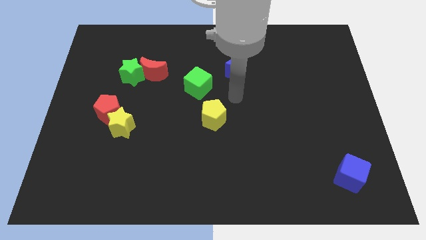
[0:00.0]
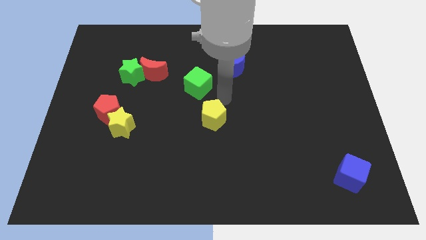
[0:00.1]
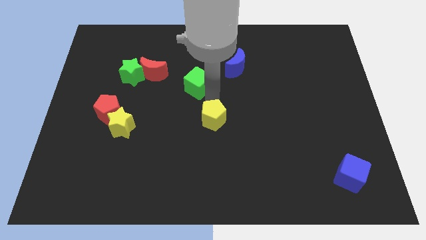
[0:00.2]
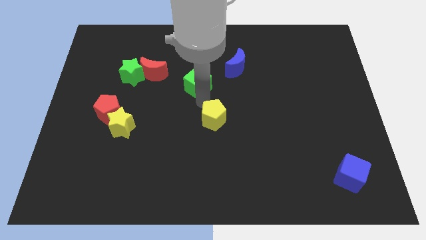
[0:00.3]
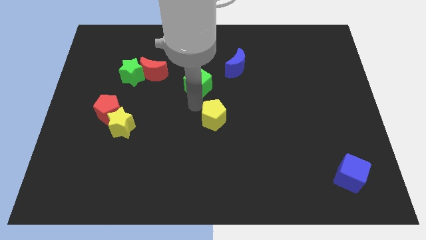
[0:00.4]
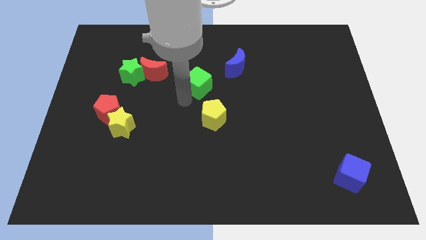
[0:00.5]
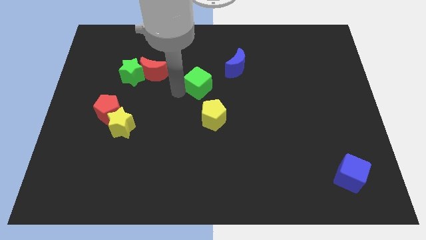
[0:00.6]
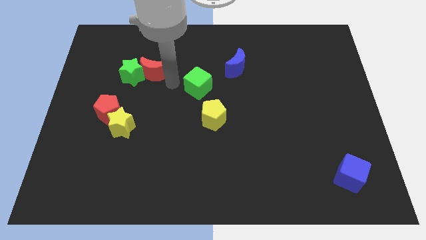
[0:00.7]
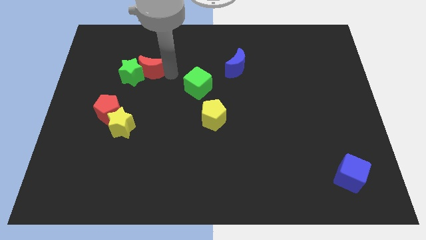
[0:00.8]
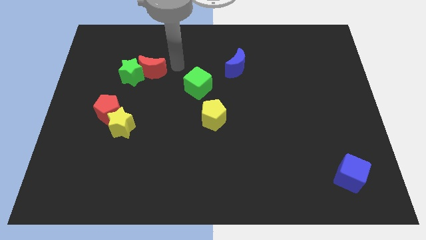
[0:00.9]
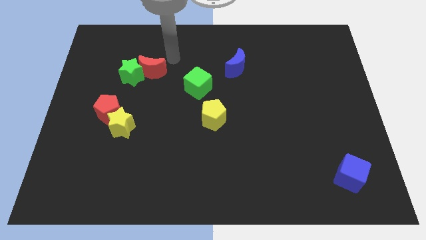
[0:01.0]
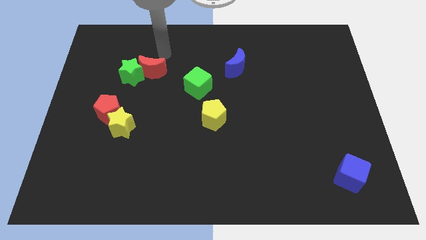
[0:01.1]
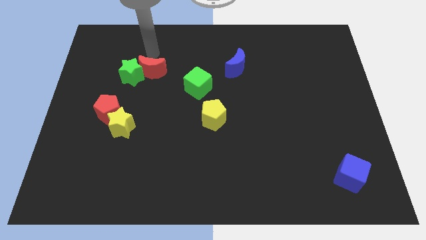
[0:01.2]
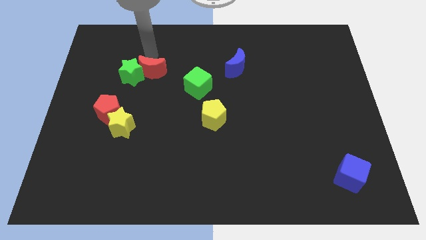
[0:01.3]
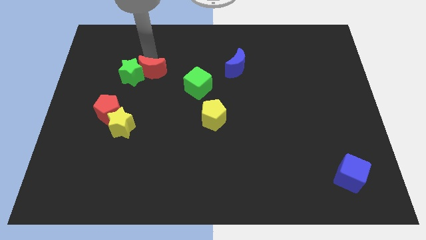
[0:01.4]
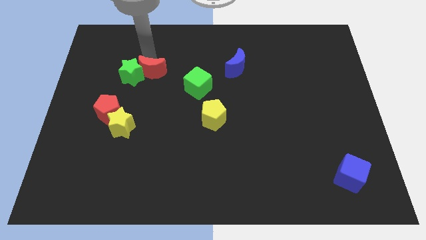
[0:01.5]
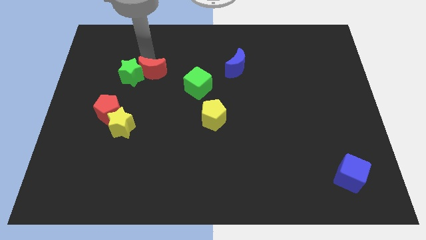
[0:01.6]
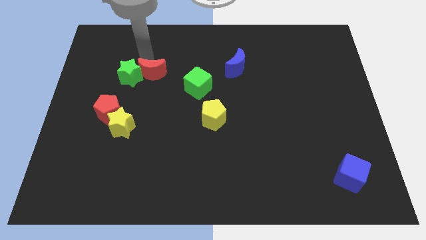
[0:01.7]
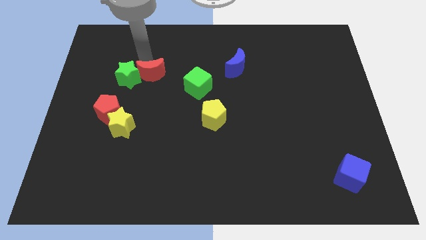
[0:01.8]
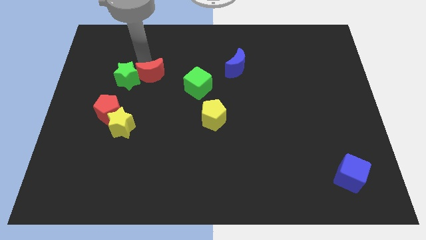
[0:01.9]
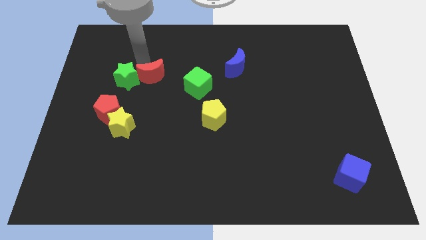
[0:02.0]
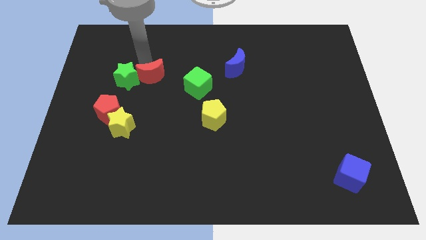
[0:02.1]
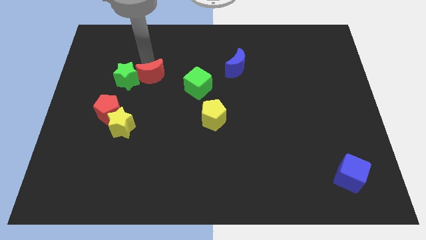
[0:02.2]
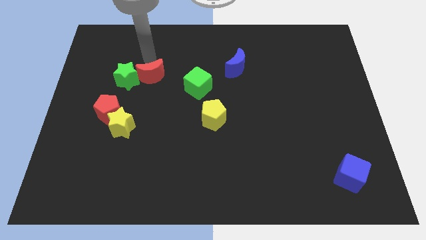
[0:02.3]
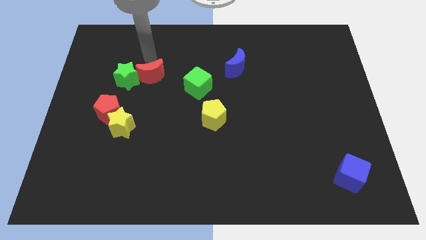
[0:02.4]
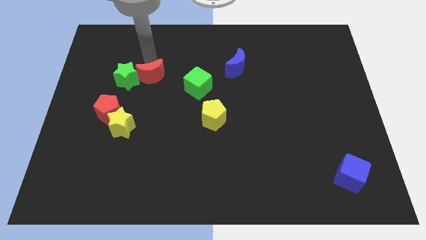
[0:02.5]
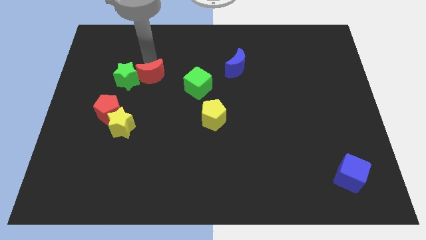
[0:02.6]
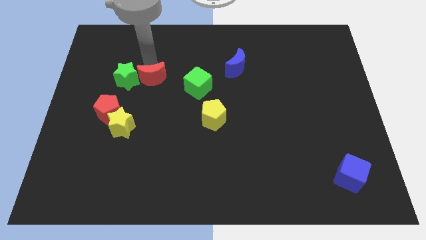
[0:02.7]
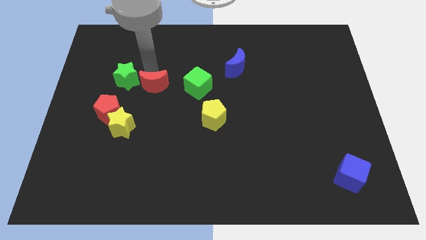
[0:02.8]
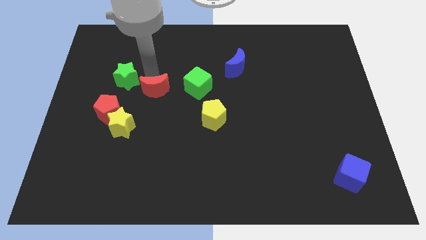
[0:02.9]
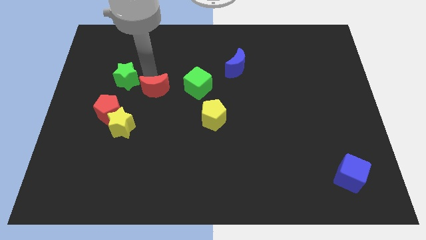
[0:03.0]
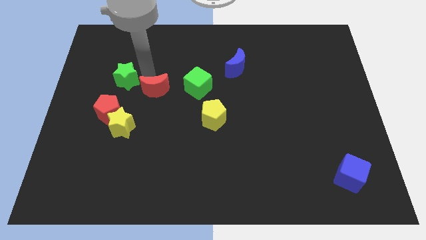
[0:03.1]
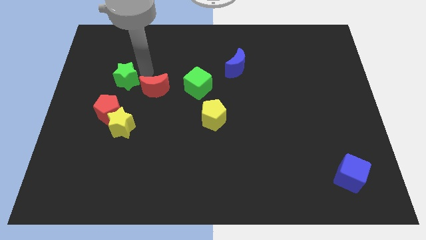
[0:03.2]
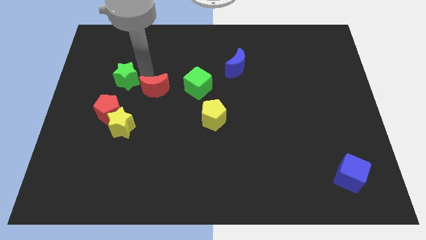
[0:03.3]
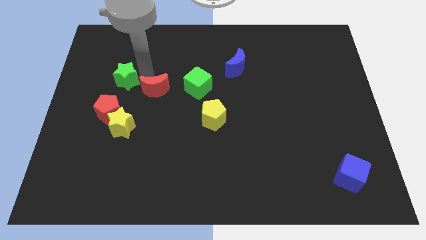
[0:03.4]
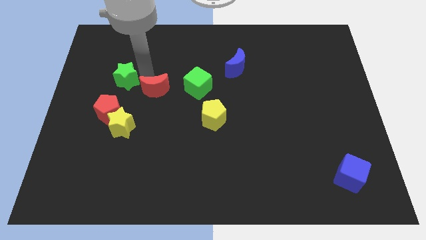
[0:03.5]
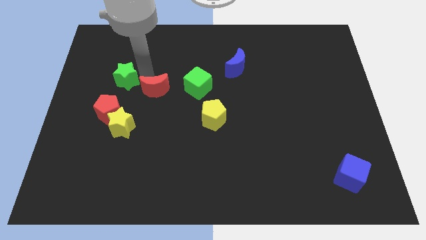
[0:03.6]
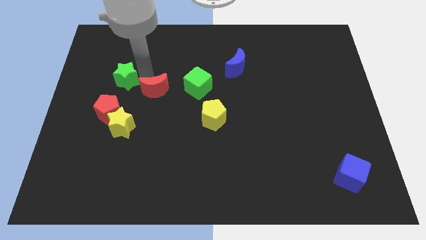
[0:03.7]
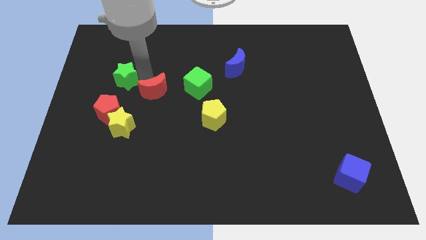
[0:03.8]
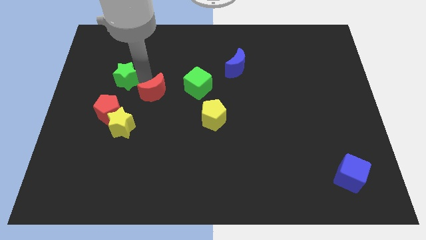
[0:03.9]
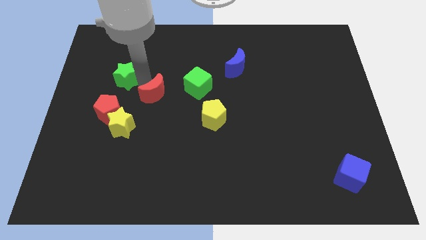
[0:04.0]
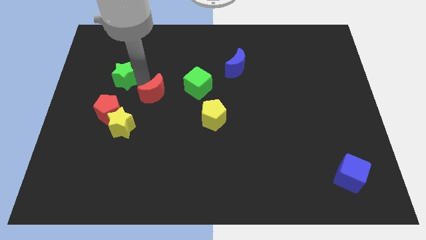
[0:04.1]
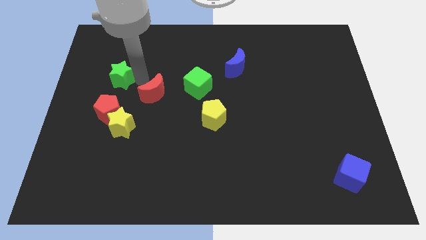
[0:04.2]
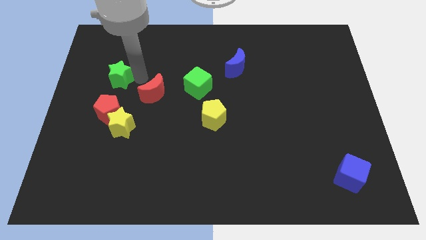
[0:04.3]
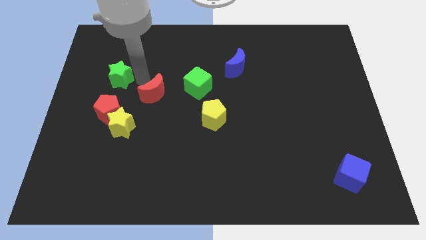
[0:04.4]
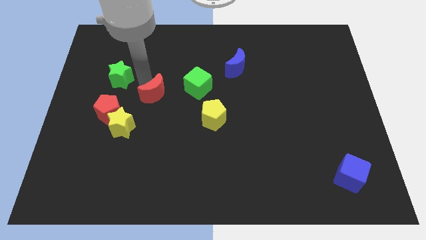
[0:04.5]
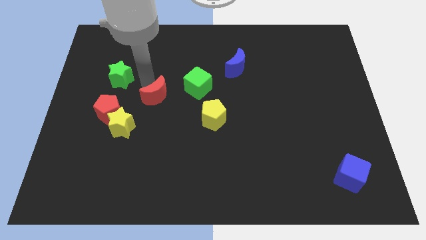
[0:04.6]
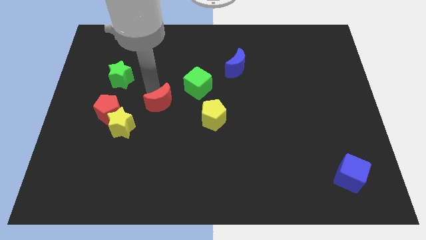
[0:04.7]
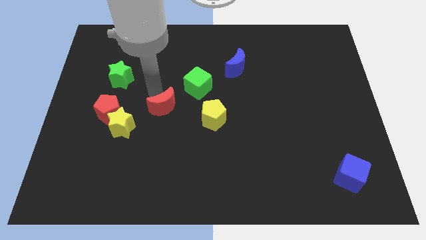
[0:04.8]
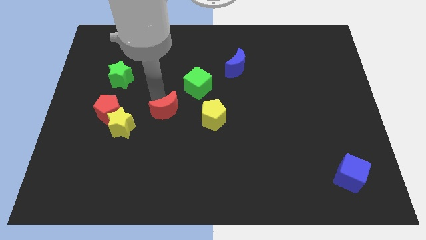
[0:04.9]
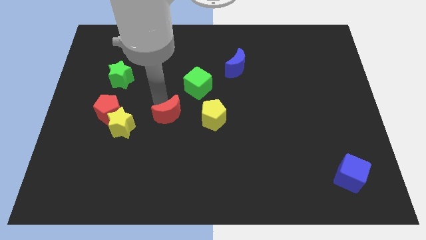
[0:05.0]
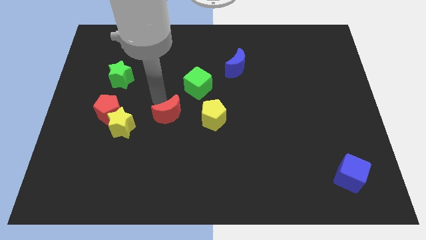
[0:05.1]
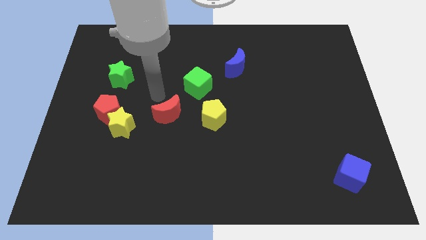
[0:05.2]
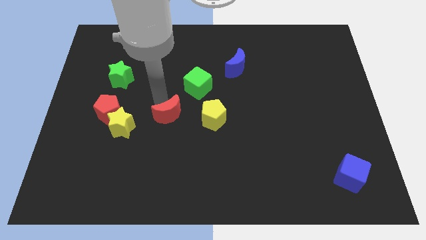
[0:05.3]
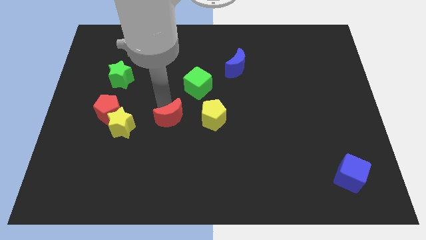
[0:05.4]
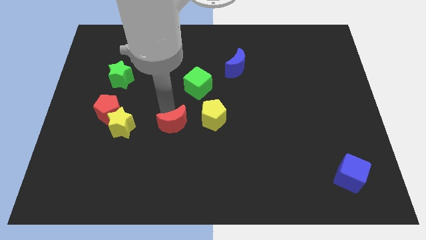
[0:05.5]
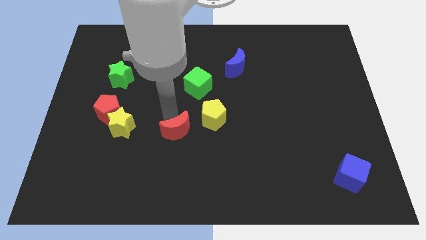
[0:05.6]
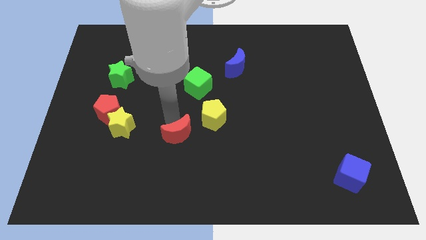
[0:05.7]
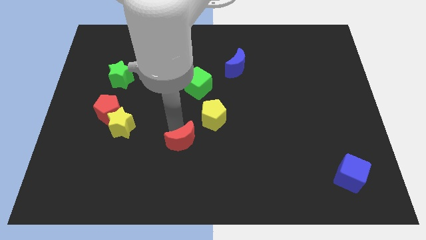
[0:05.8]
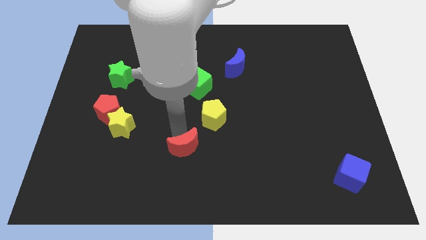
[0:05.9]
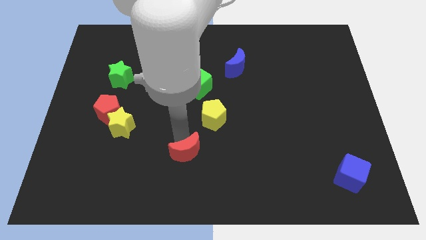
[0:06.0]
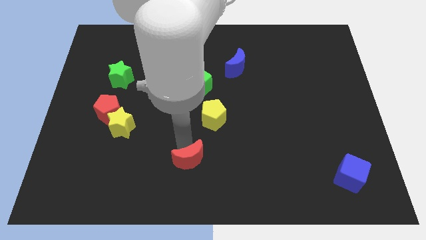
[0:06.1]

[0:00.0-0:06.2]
slide the red moon to the bottom side
